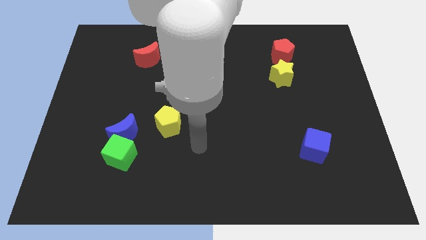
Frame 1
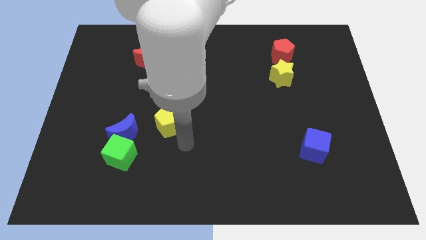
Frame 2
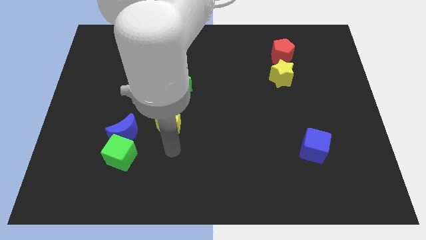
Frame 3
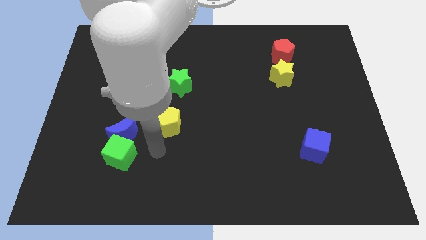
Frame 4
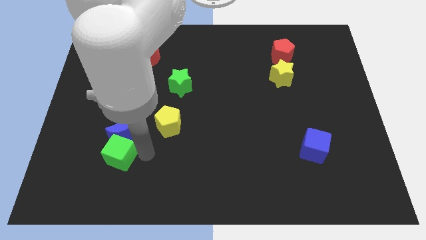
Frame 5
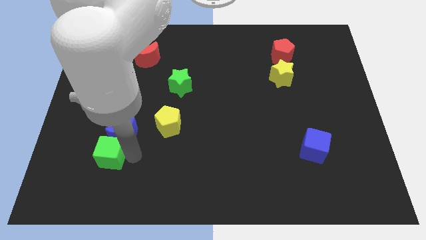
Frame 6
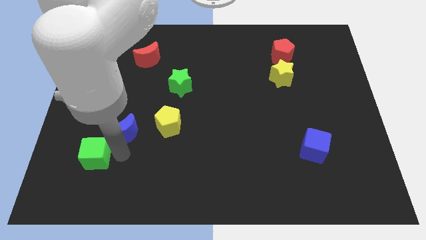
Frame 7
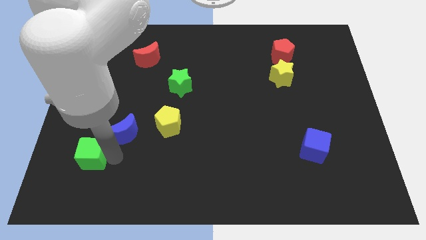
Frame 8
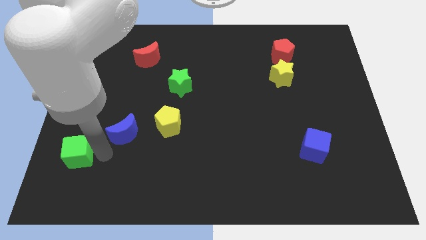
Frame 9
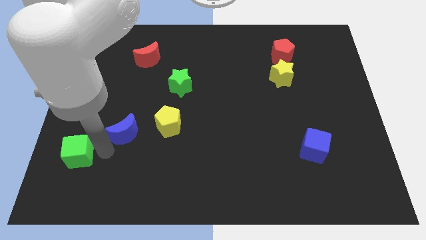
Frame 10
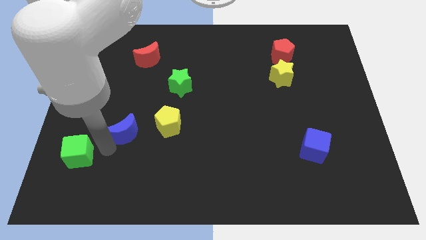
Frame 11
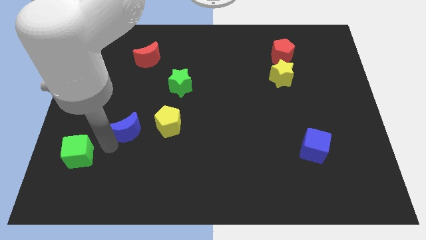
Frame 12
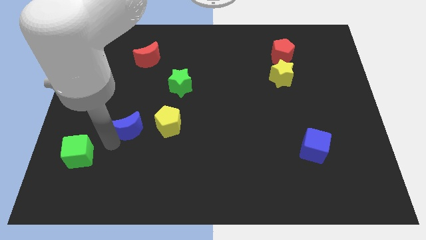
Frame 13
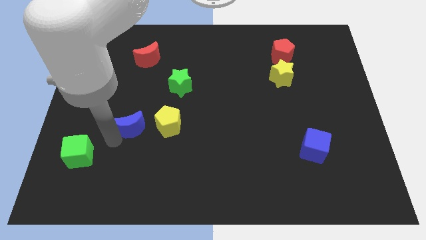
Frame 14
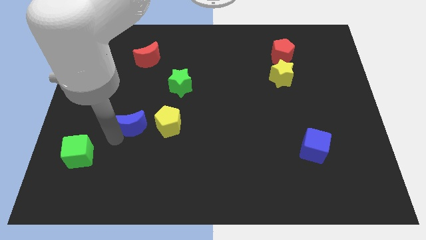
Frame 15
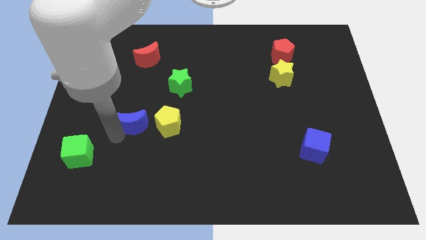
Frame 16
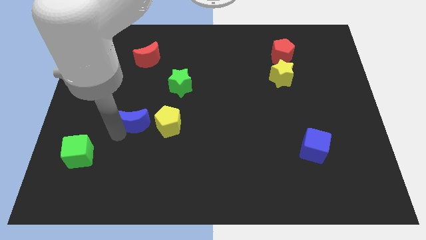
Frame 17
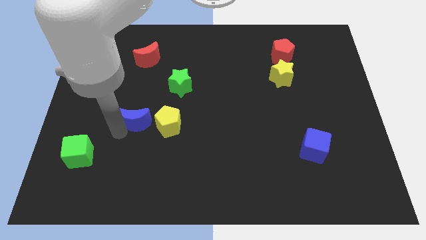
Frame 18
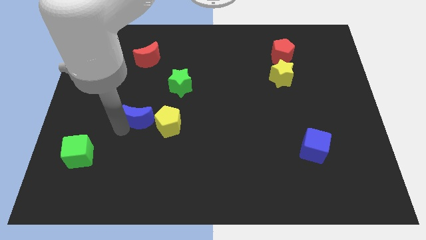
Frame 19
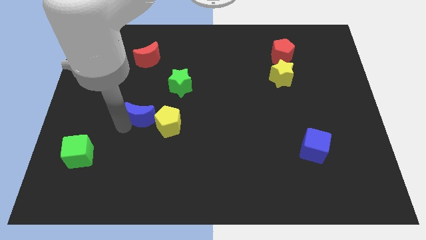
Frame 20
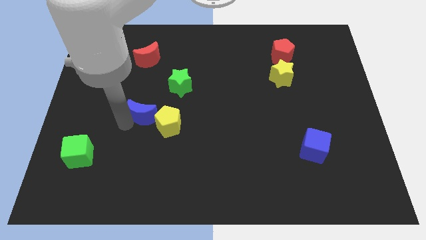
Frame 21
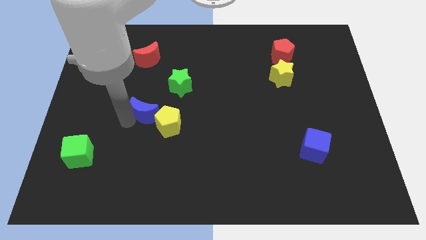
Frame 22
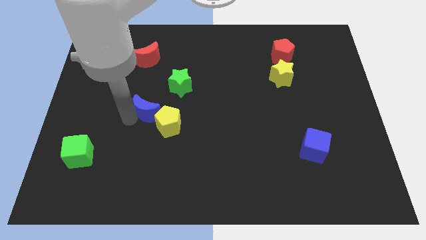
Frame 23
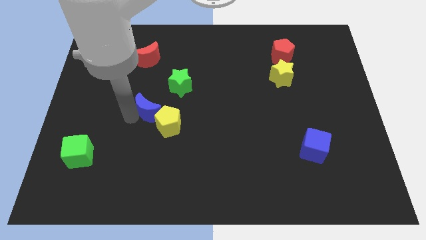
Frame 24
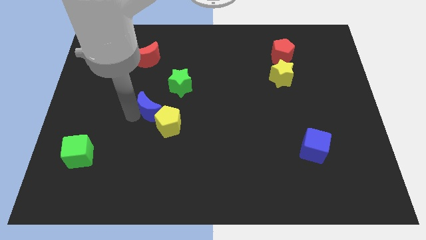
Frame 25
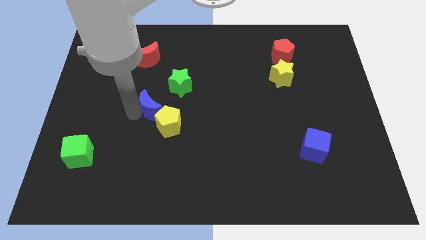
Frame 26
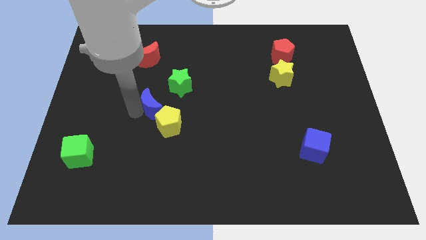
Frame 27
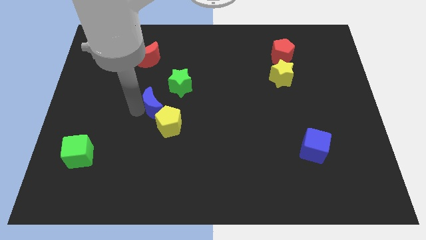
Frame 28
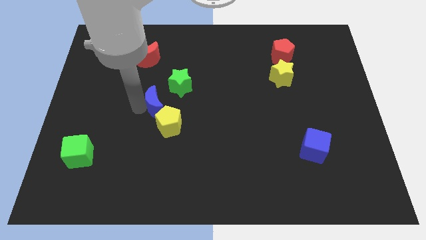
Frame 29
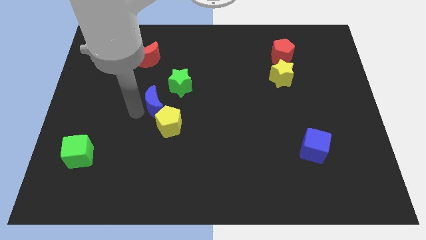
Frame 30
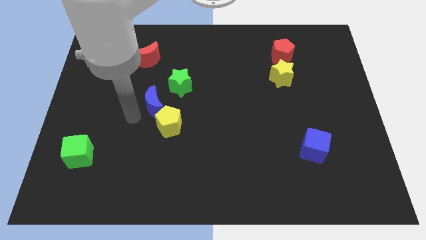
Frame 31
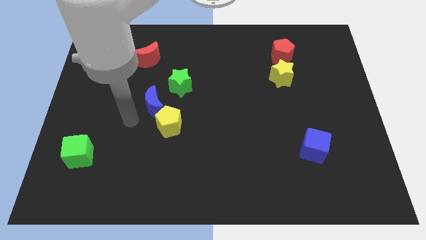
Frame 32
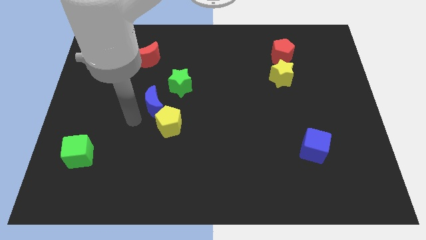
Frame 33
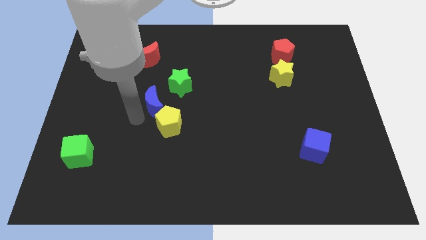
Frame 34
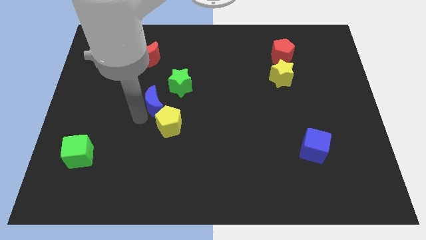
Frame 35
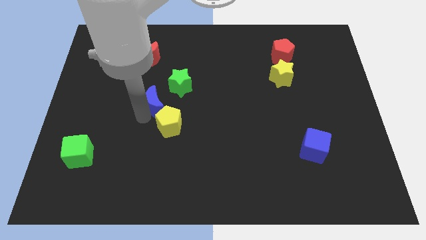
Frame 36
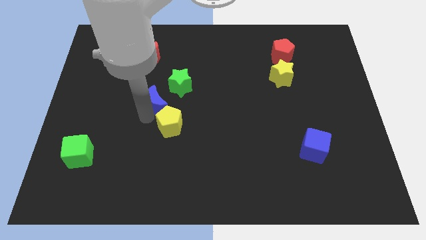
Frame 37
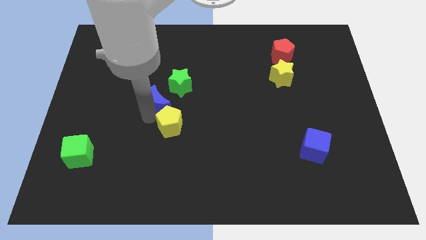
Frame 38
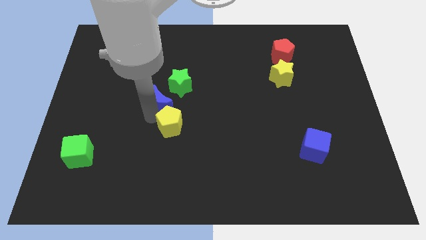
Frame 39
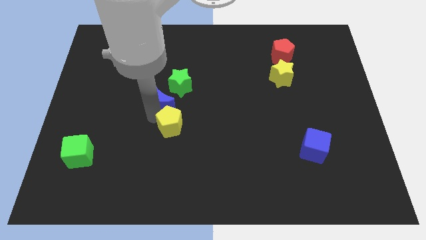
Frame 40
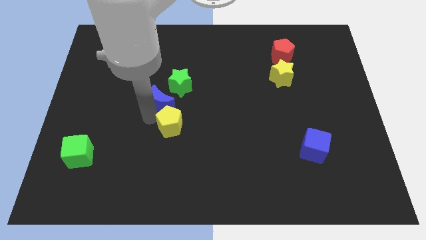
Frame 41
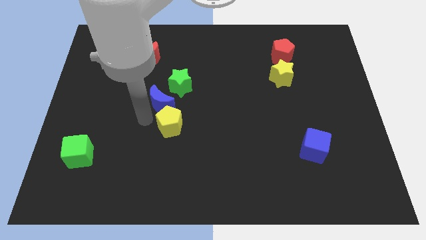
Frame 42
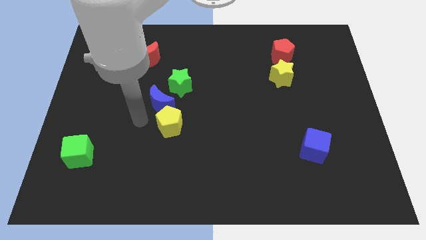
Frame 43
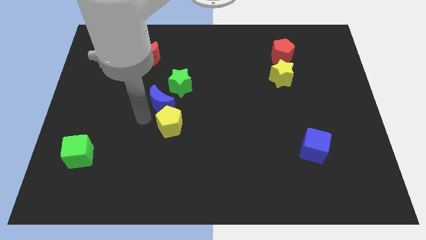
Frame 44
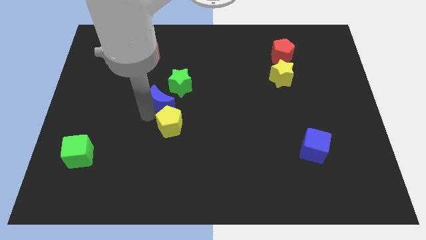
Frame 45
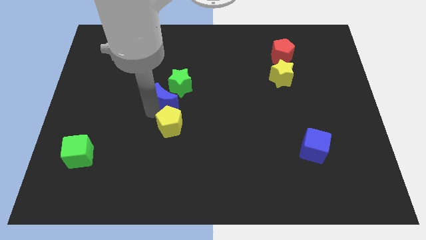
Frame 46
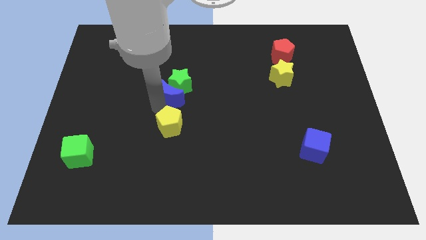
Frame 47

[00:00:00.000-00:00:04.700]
slide the blue moon to the green star

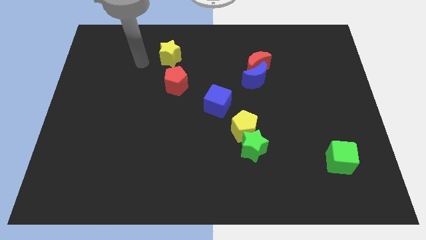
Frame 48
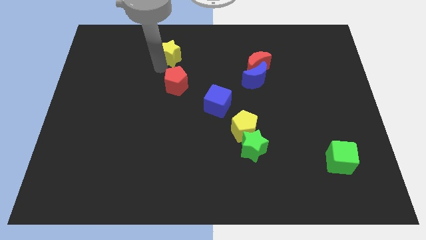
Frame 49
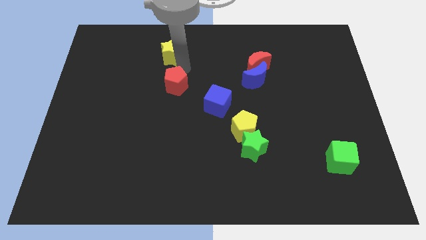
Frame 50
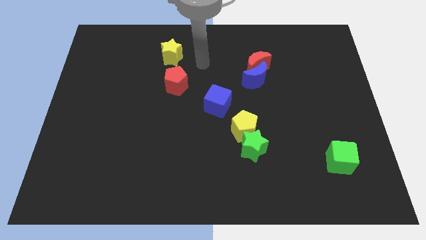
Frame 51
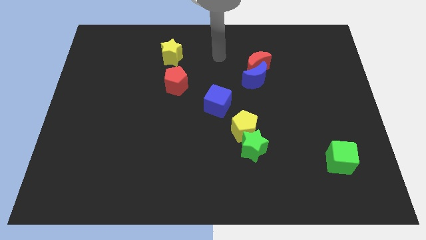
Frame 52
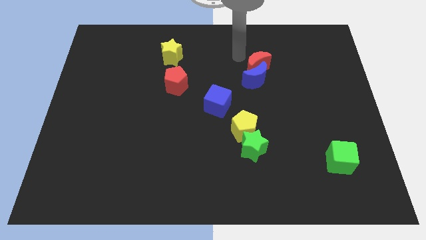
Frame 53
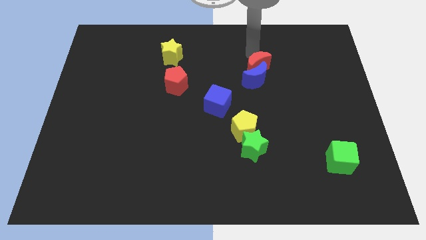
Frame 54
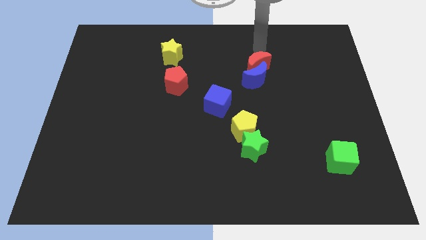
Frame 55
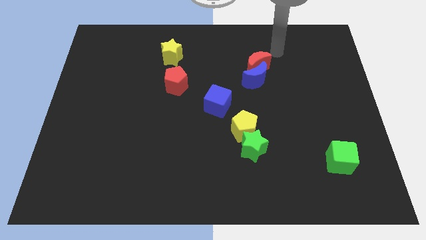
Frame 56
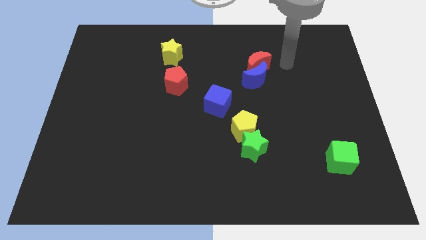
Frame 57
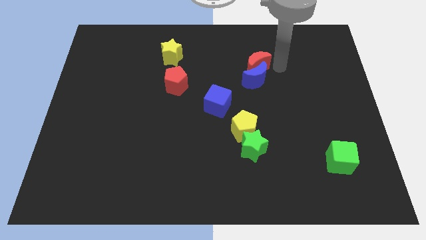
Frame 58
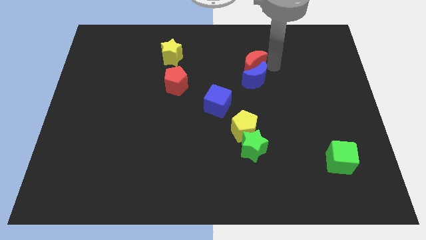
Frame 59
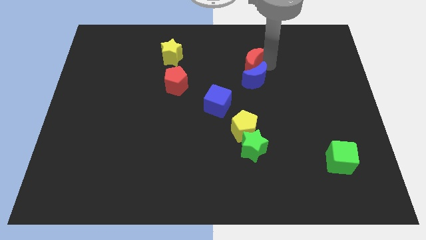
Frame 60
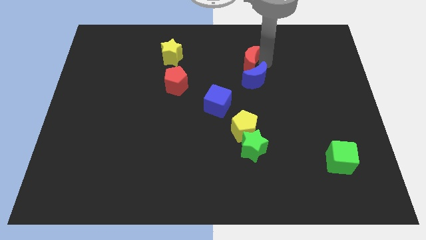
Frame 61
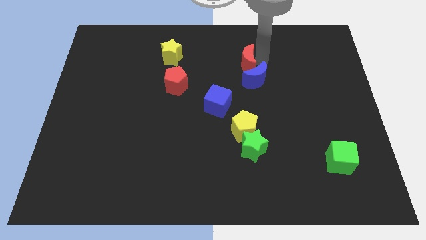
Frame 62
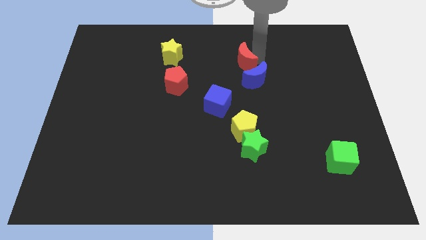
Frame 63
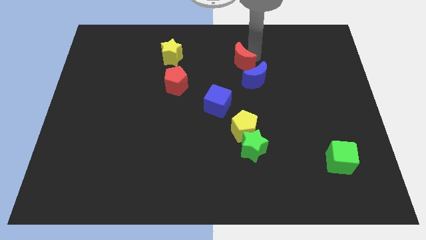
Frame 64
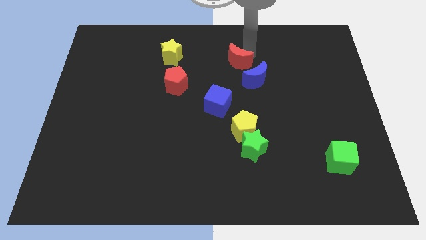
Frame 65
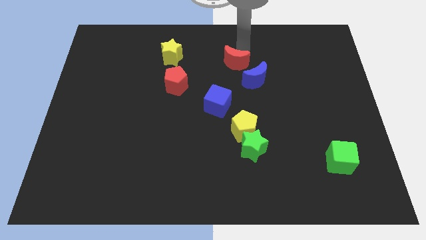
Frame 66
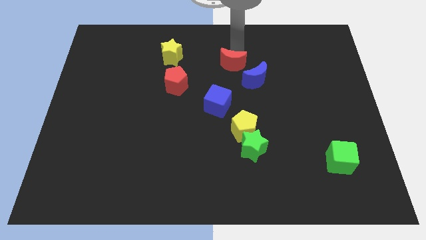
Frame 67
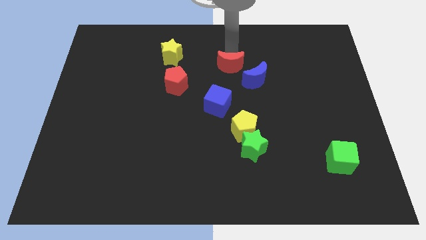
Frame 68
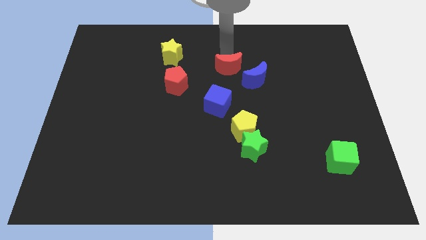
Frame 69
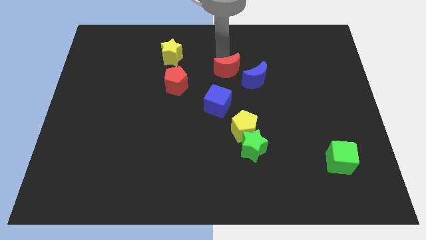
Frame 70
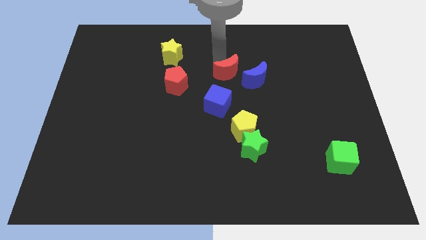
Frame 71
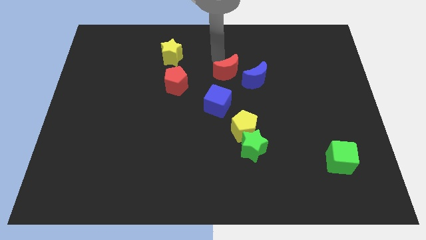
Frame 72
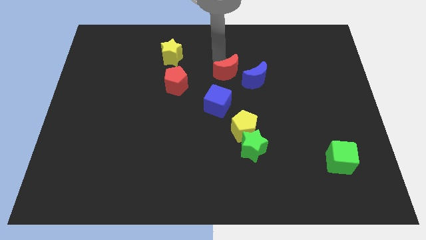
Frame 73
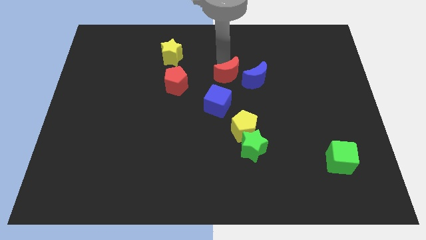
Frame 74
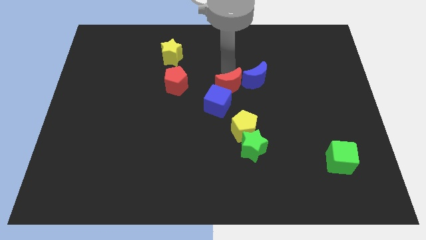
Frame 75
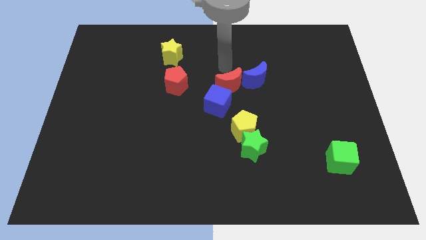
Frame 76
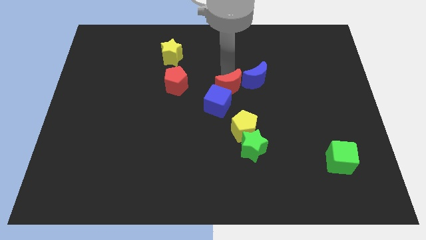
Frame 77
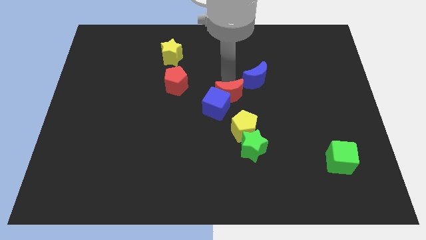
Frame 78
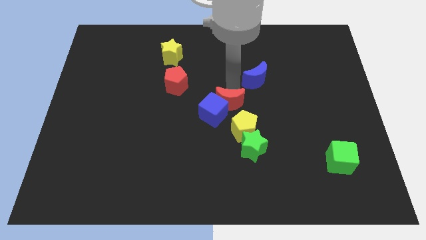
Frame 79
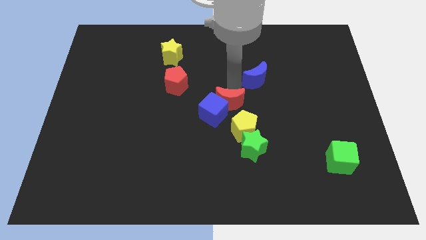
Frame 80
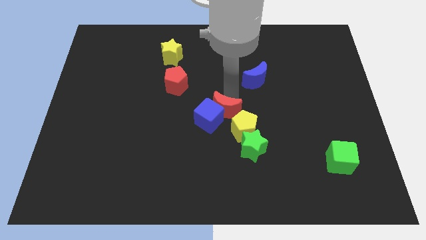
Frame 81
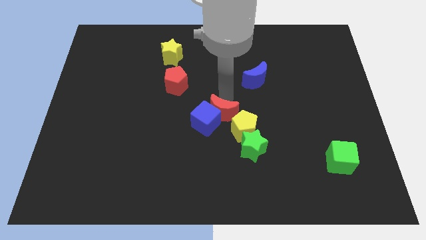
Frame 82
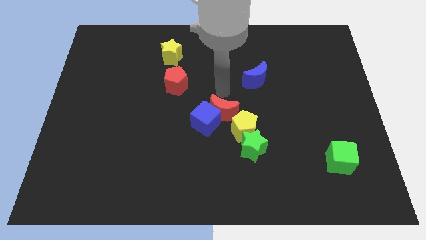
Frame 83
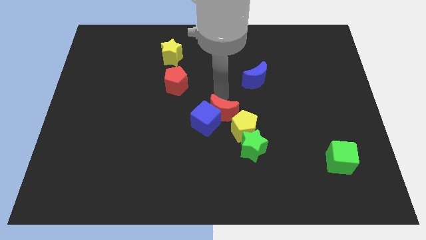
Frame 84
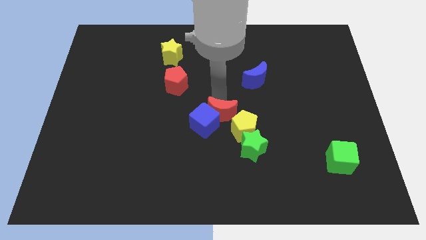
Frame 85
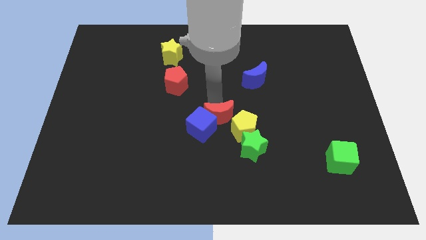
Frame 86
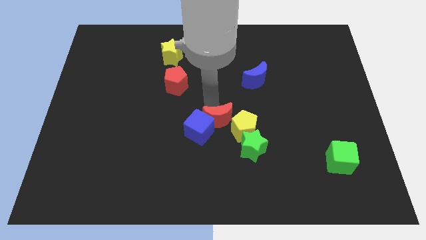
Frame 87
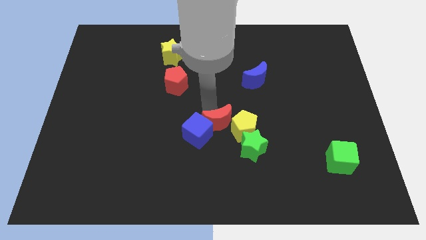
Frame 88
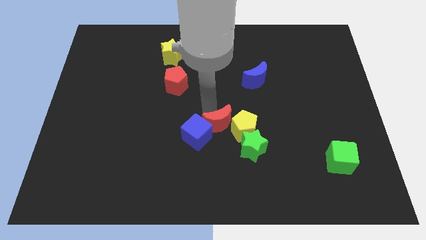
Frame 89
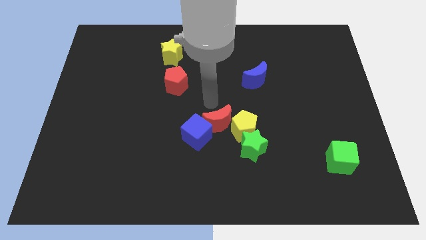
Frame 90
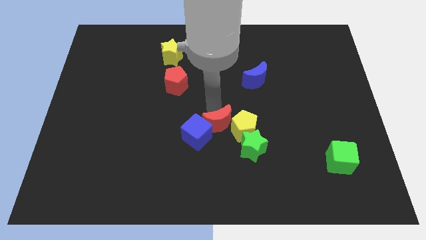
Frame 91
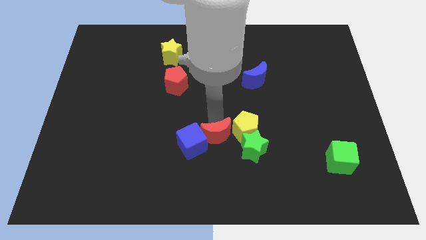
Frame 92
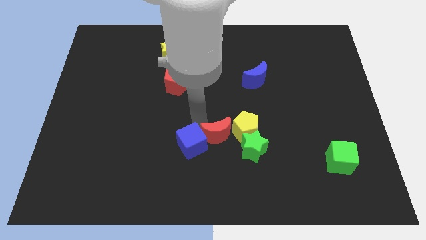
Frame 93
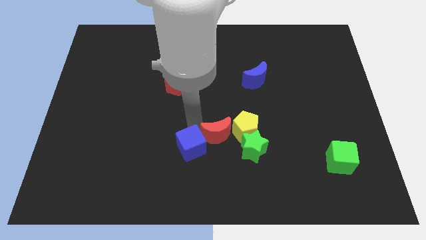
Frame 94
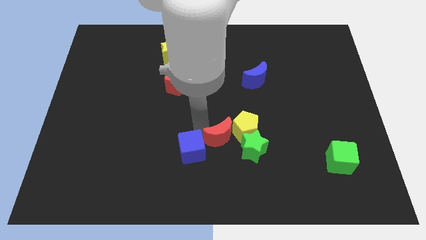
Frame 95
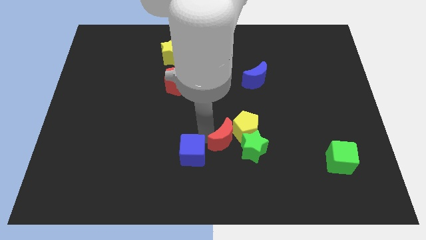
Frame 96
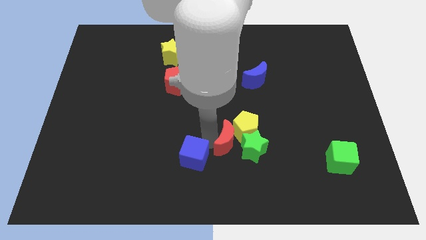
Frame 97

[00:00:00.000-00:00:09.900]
put the red moon towards the green star
